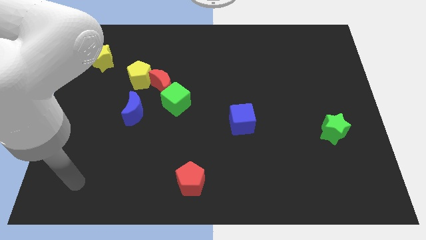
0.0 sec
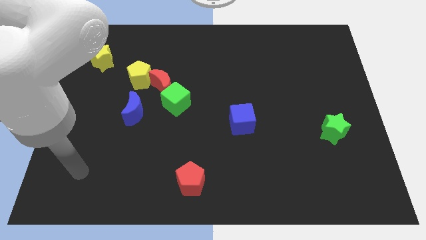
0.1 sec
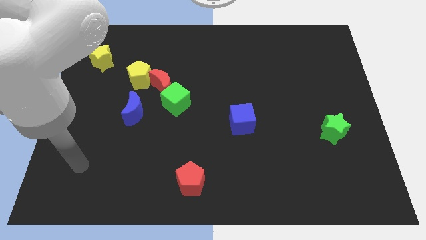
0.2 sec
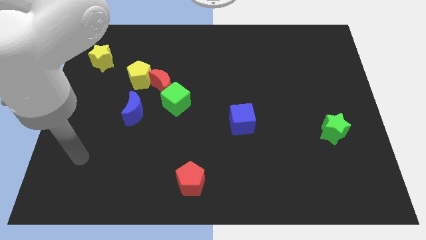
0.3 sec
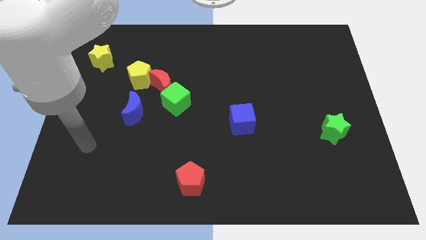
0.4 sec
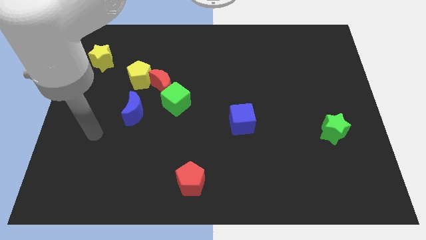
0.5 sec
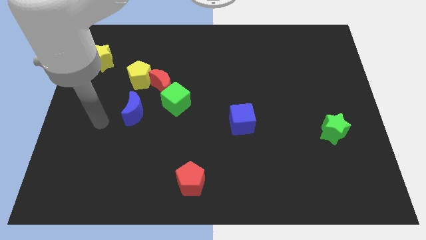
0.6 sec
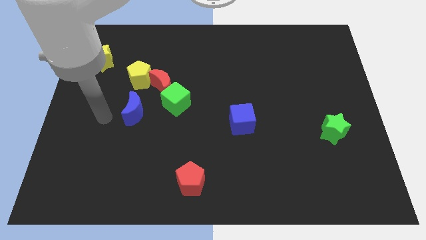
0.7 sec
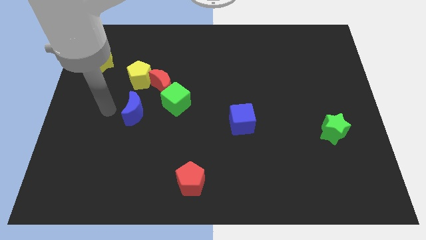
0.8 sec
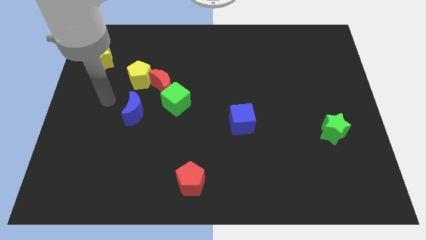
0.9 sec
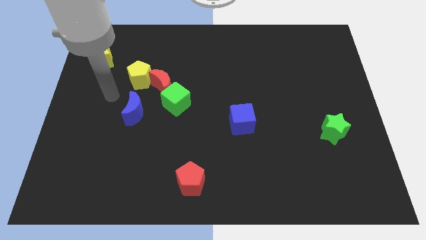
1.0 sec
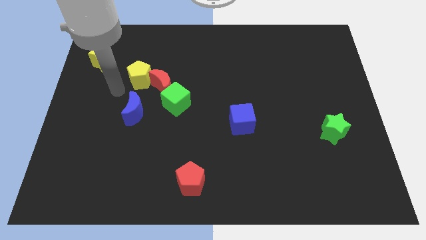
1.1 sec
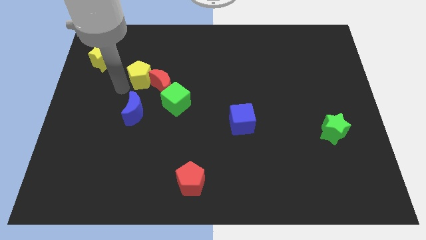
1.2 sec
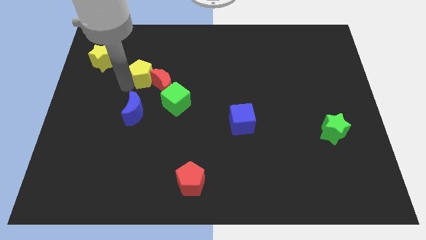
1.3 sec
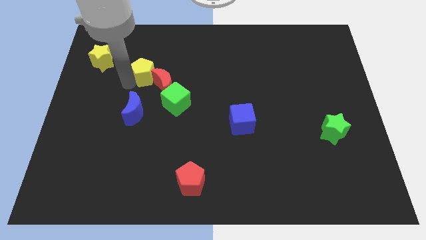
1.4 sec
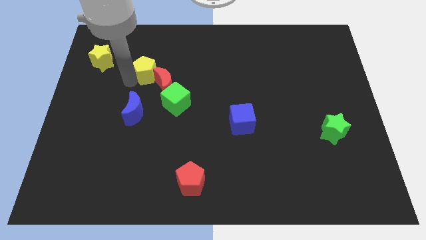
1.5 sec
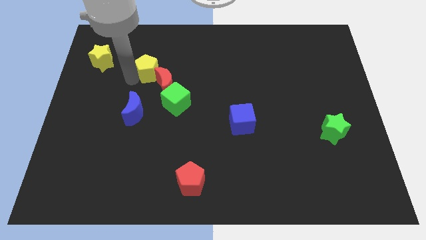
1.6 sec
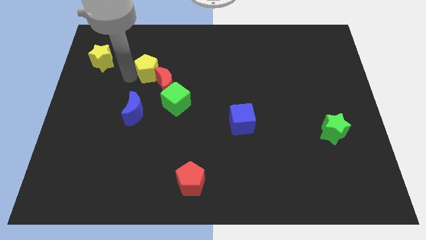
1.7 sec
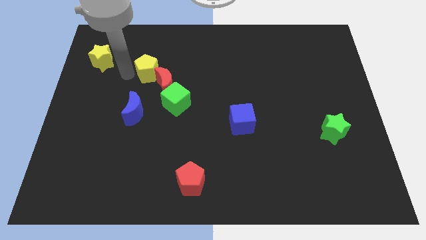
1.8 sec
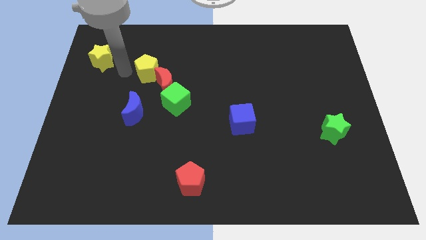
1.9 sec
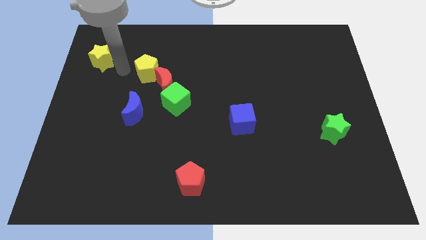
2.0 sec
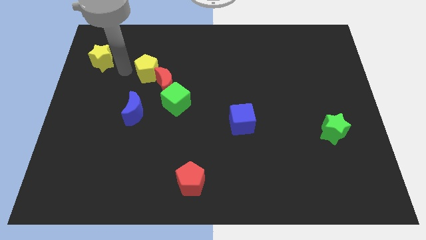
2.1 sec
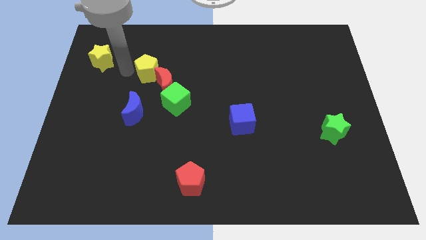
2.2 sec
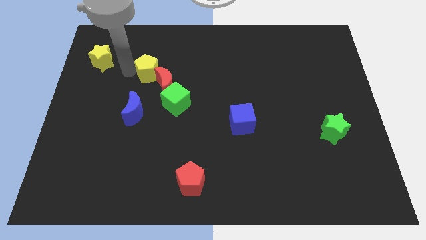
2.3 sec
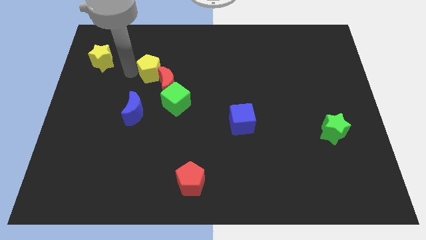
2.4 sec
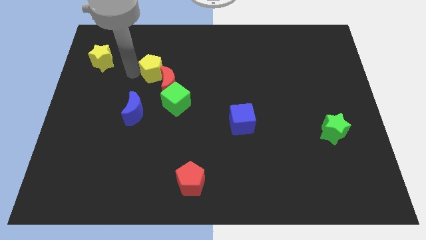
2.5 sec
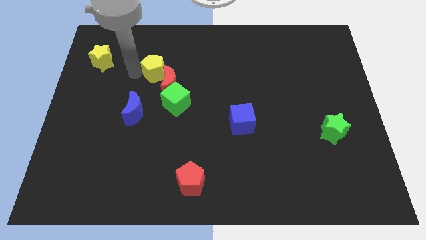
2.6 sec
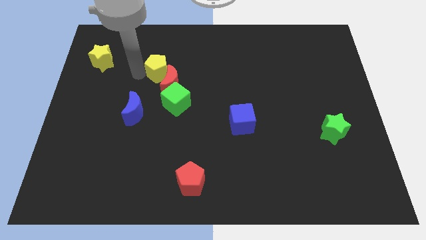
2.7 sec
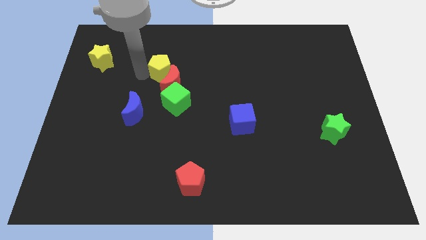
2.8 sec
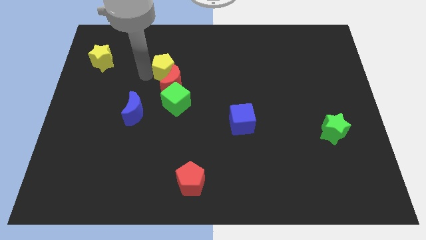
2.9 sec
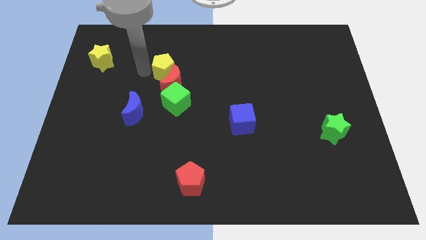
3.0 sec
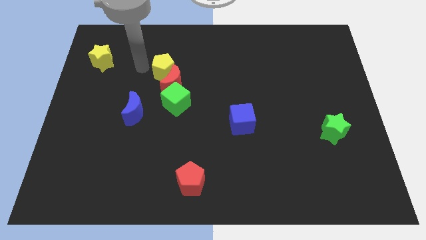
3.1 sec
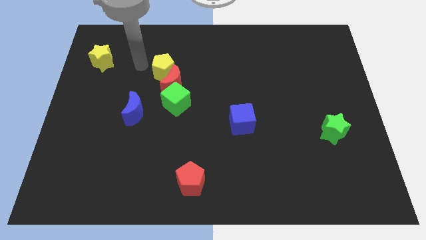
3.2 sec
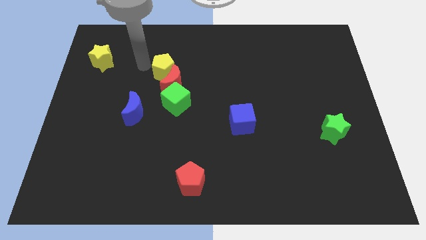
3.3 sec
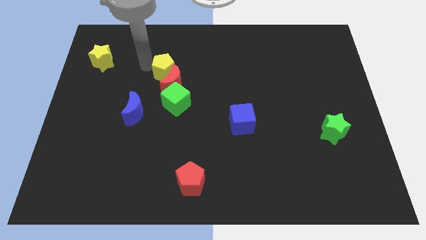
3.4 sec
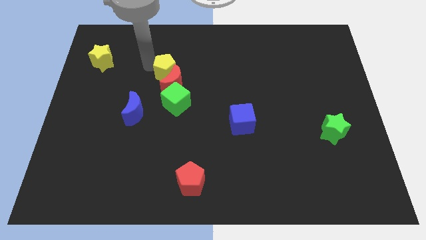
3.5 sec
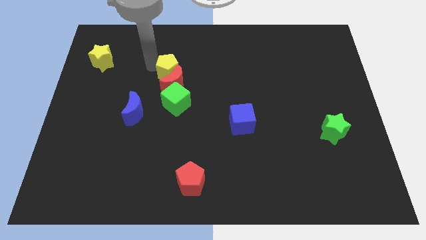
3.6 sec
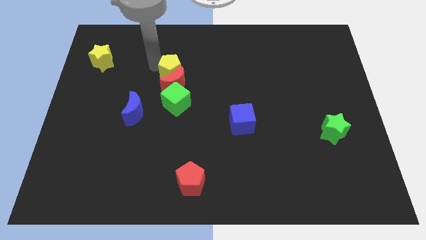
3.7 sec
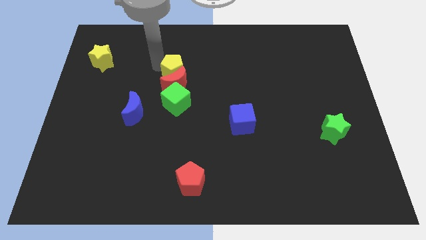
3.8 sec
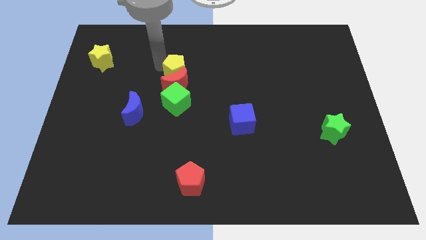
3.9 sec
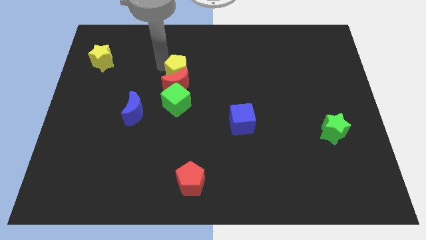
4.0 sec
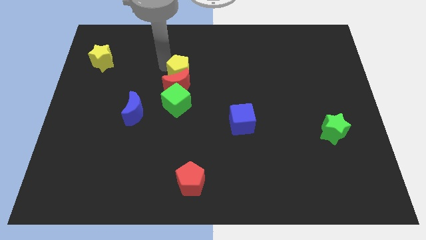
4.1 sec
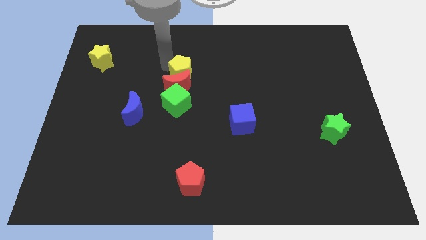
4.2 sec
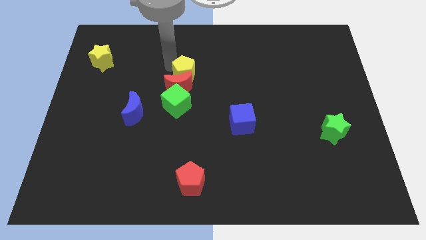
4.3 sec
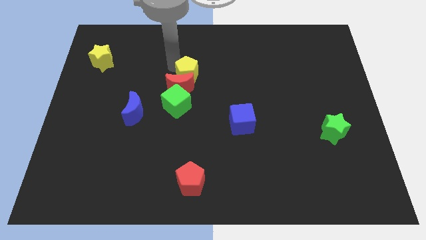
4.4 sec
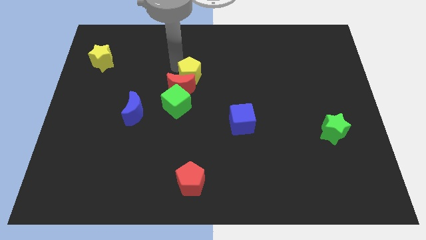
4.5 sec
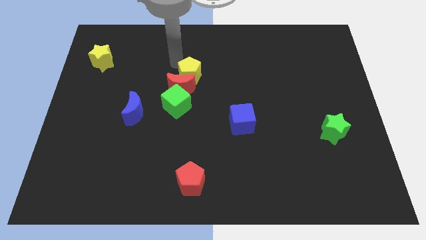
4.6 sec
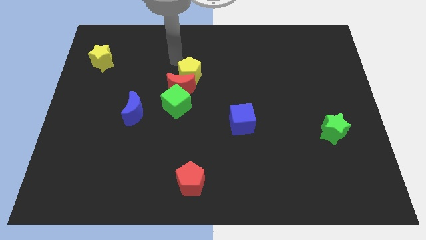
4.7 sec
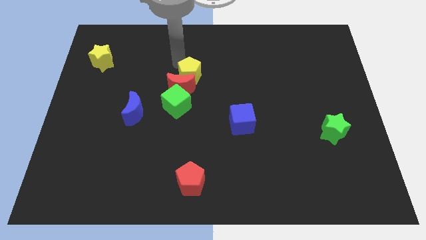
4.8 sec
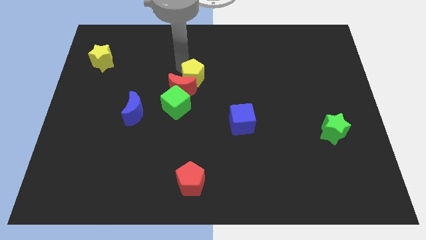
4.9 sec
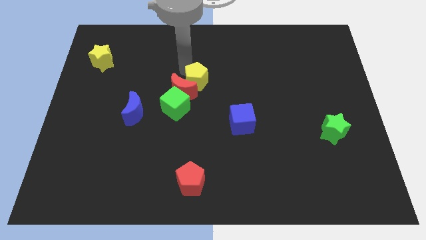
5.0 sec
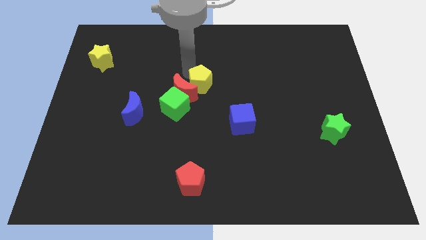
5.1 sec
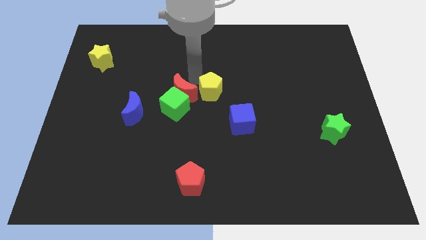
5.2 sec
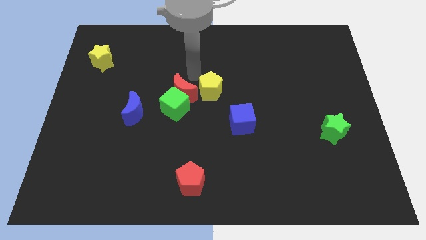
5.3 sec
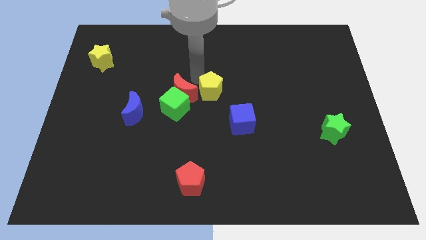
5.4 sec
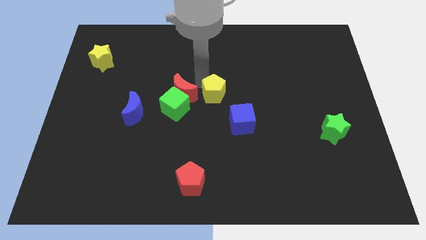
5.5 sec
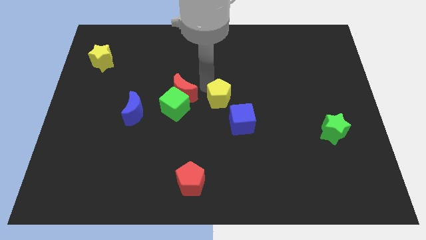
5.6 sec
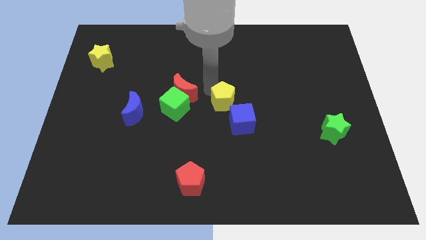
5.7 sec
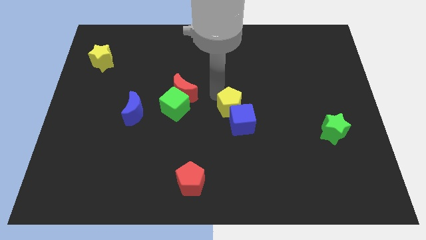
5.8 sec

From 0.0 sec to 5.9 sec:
slide the yellow pentagon next to the blue cube
